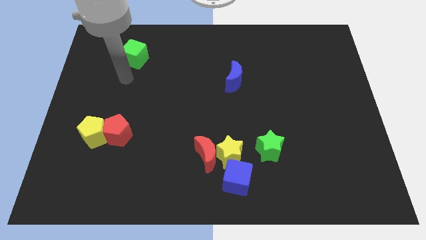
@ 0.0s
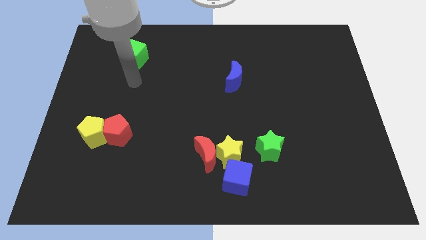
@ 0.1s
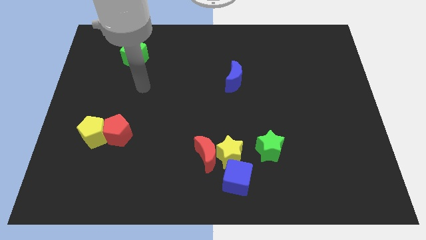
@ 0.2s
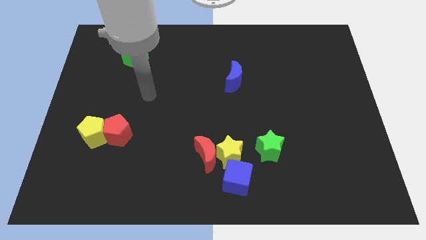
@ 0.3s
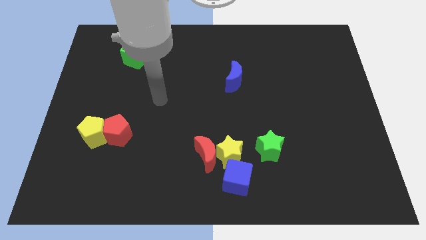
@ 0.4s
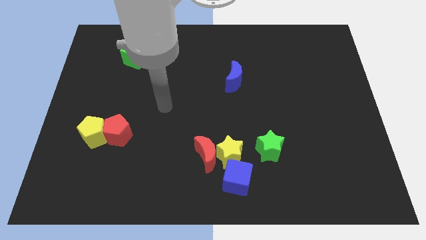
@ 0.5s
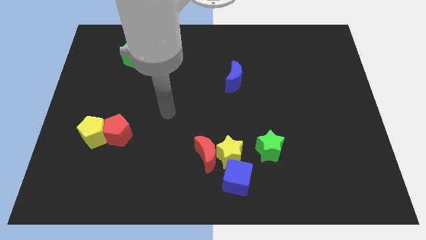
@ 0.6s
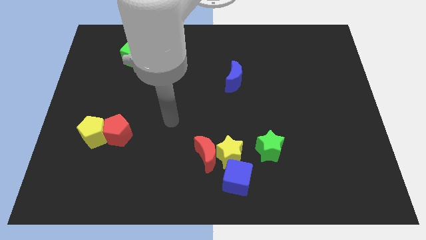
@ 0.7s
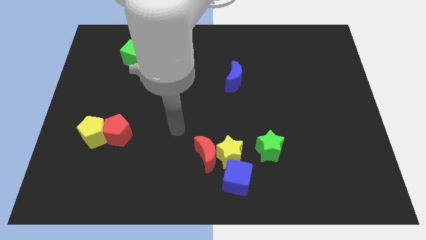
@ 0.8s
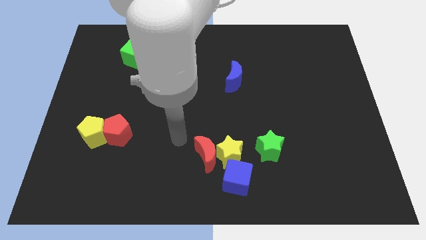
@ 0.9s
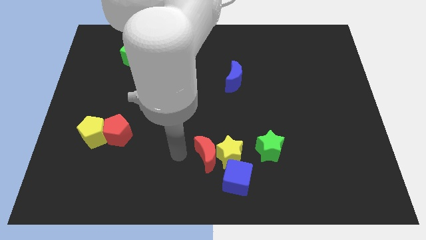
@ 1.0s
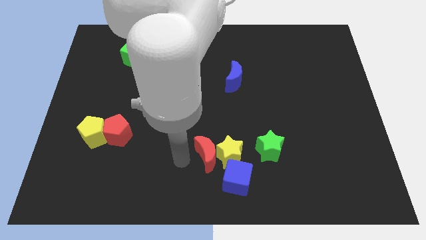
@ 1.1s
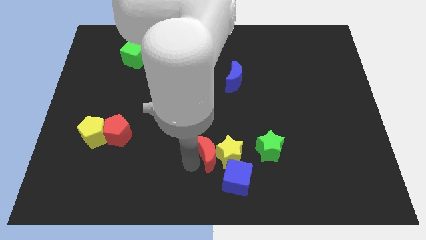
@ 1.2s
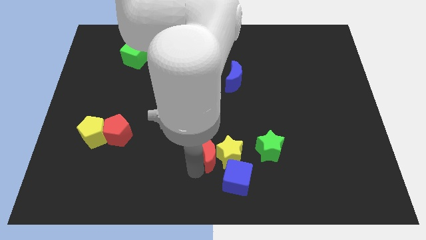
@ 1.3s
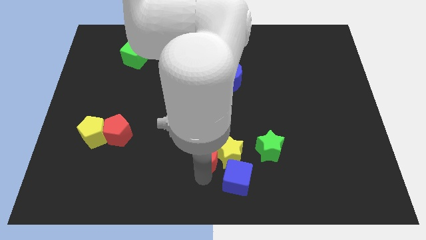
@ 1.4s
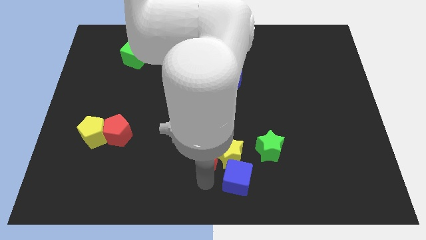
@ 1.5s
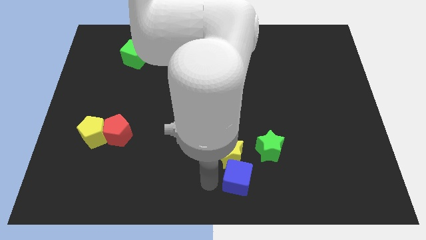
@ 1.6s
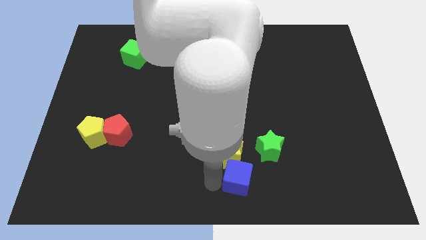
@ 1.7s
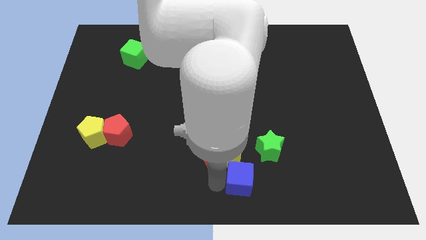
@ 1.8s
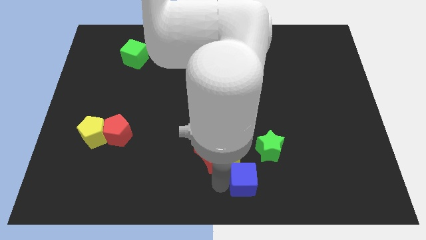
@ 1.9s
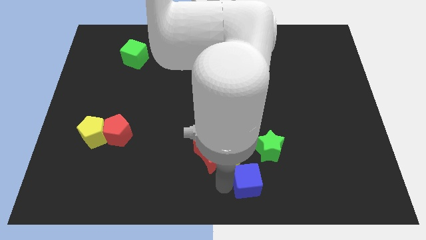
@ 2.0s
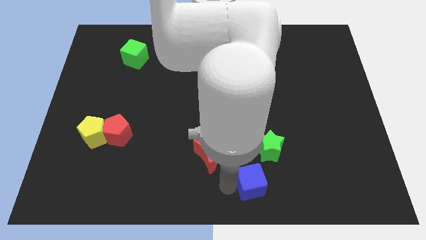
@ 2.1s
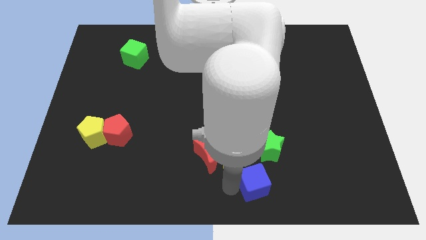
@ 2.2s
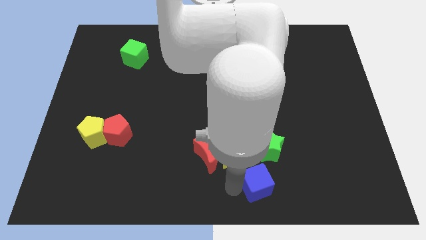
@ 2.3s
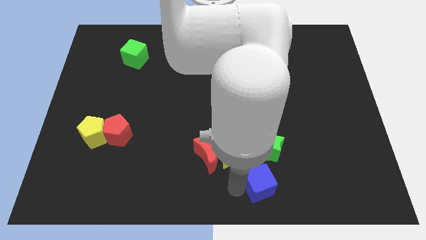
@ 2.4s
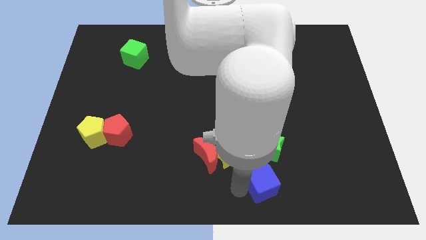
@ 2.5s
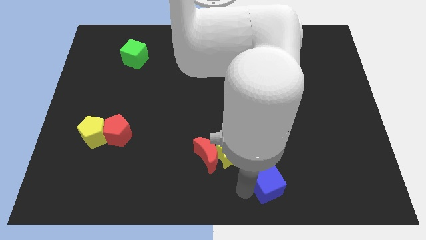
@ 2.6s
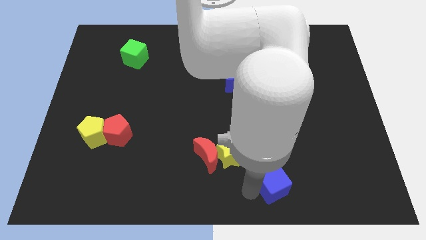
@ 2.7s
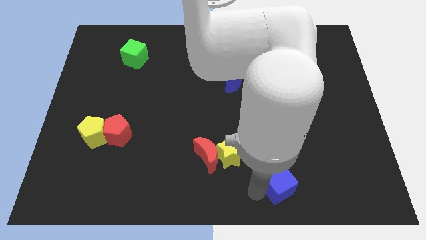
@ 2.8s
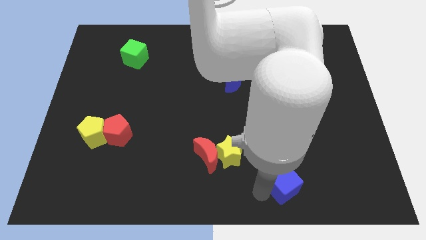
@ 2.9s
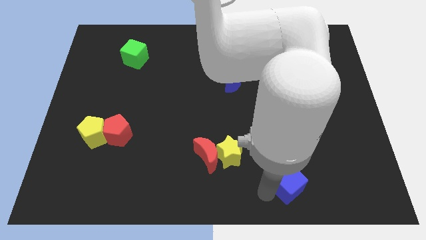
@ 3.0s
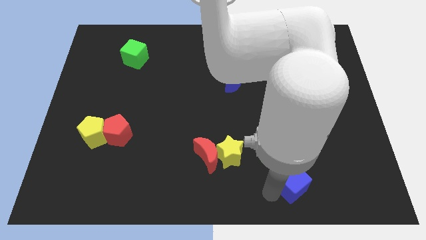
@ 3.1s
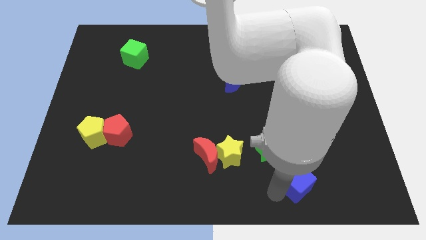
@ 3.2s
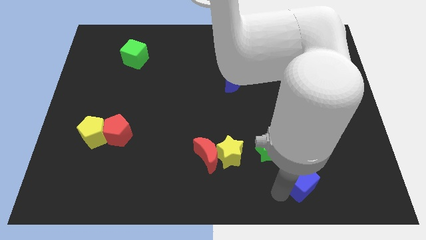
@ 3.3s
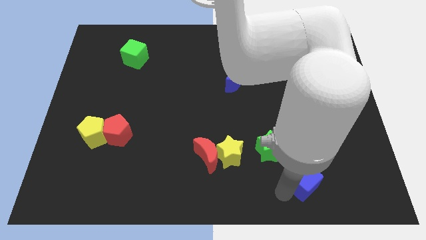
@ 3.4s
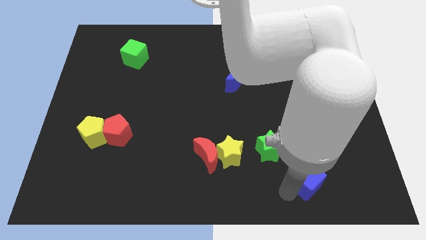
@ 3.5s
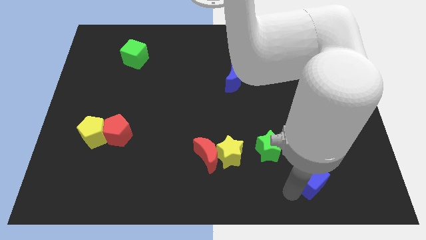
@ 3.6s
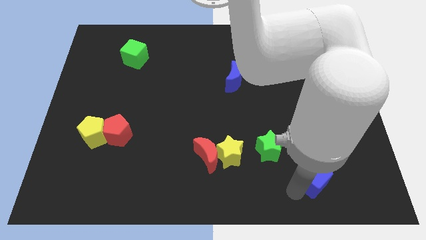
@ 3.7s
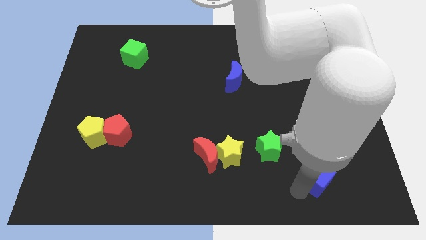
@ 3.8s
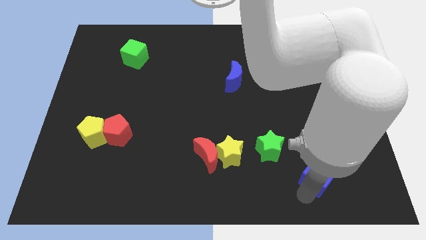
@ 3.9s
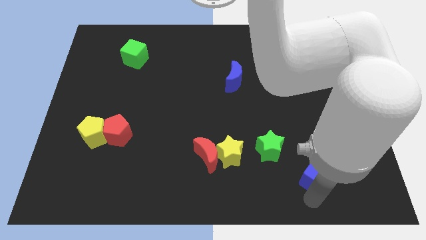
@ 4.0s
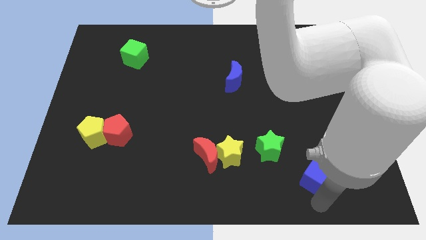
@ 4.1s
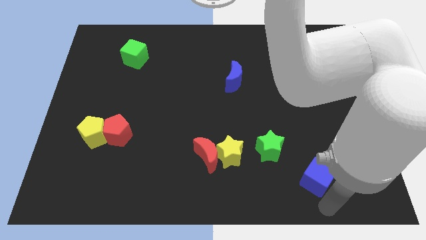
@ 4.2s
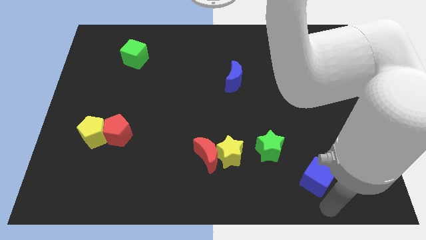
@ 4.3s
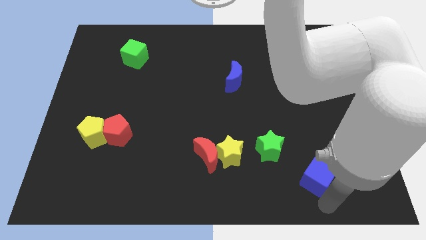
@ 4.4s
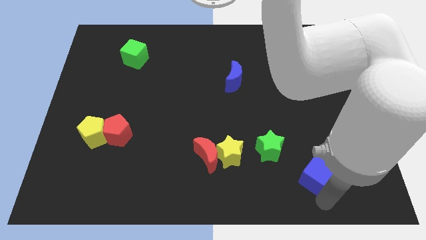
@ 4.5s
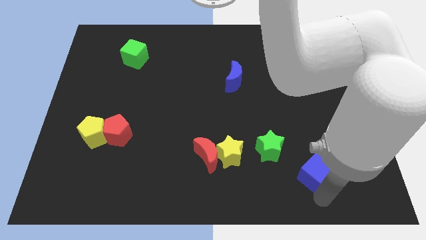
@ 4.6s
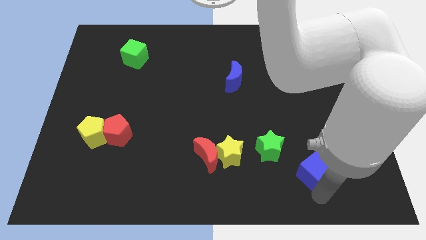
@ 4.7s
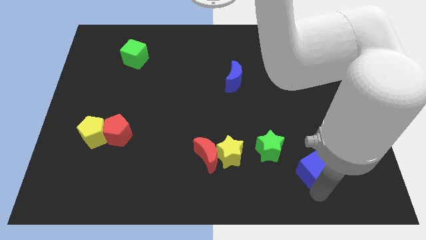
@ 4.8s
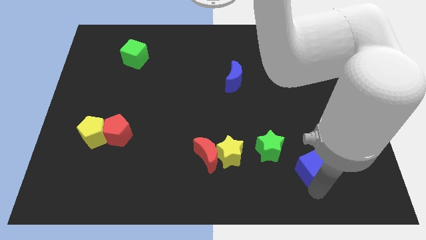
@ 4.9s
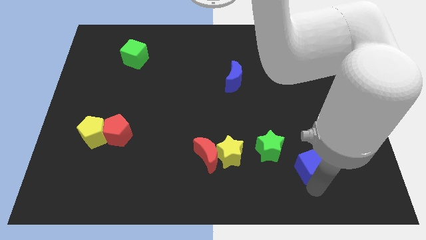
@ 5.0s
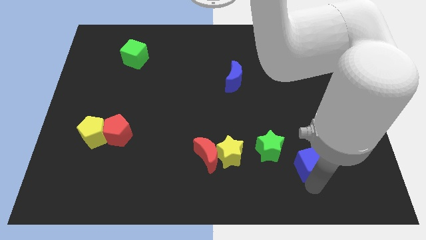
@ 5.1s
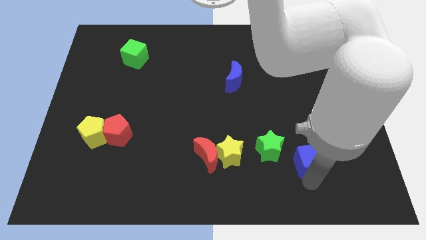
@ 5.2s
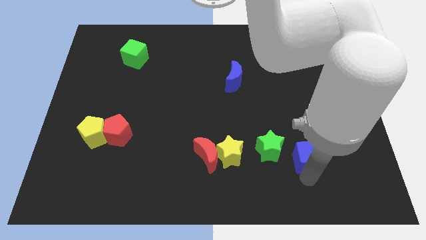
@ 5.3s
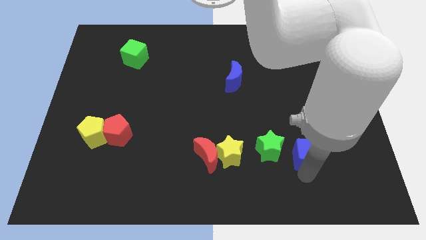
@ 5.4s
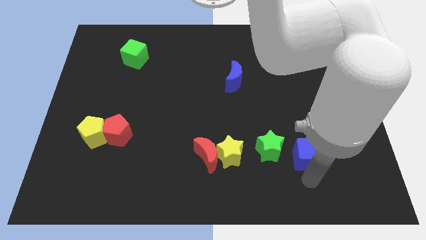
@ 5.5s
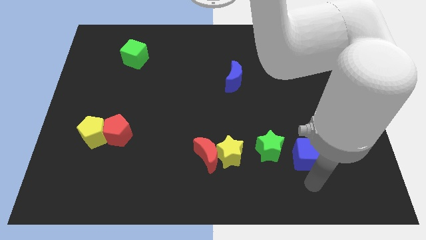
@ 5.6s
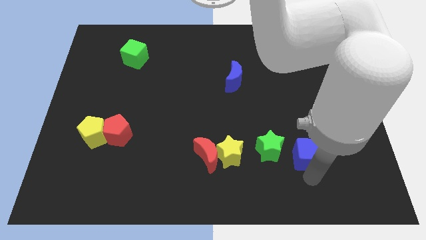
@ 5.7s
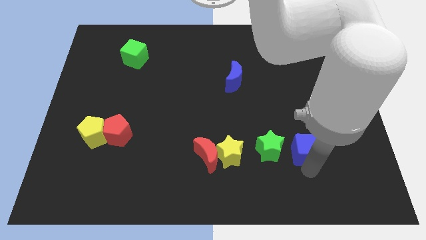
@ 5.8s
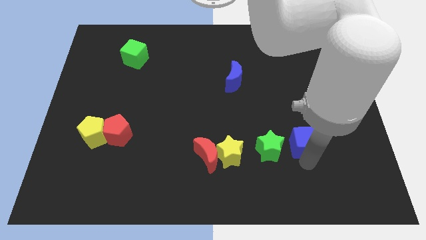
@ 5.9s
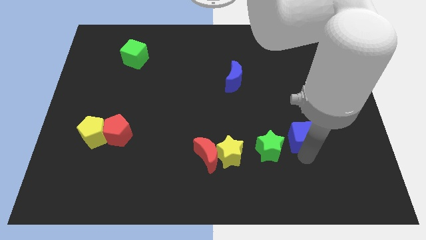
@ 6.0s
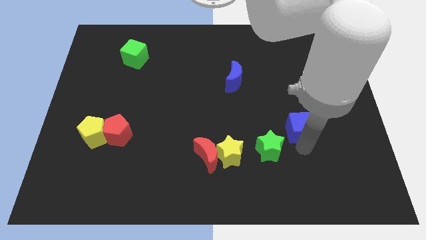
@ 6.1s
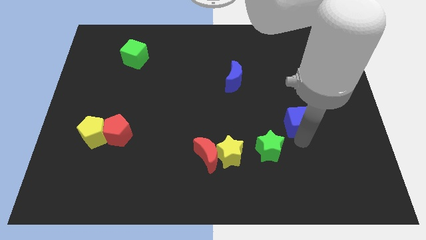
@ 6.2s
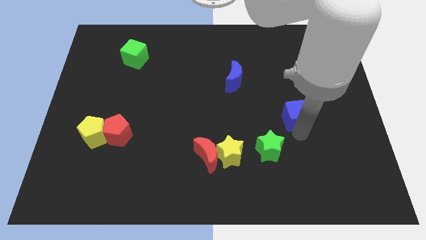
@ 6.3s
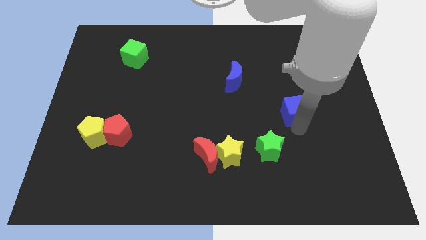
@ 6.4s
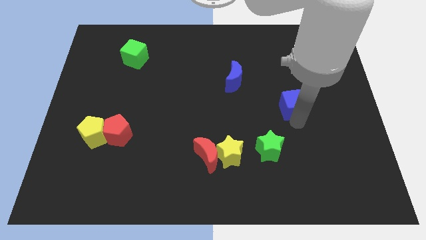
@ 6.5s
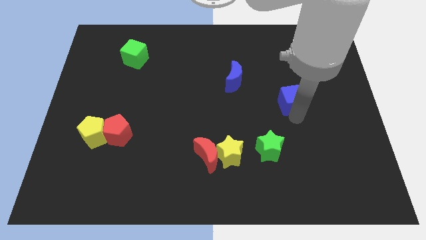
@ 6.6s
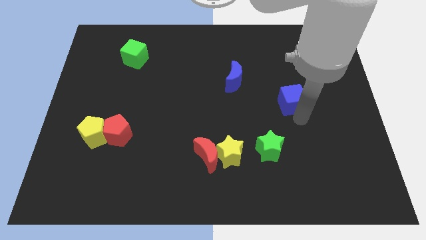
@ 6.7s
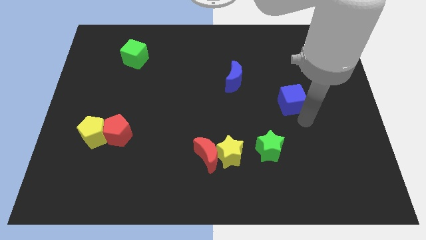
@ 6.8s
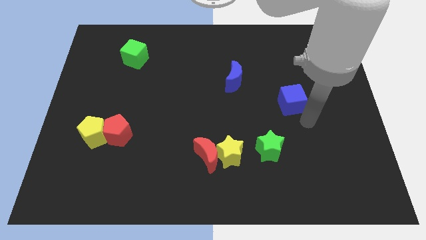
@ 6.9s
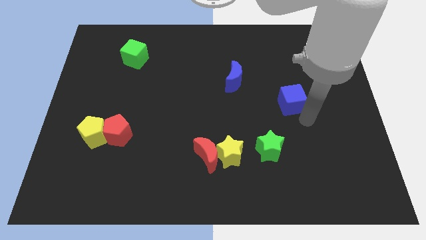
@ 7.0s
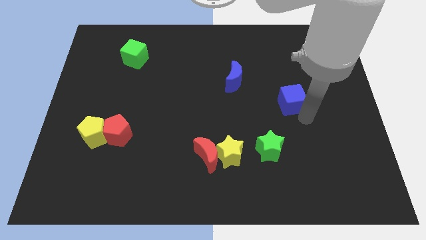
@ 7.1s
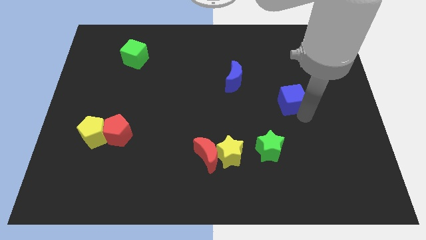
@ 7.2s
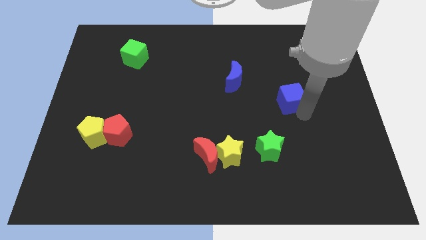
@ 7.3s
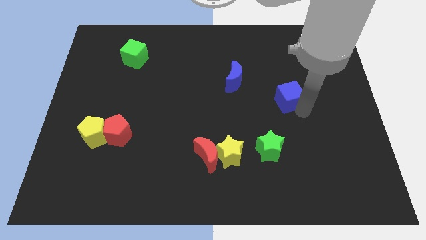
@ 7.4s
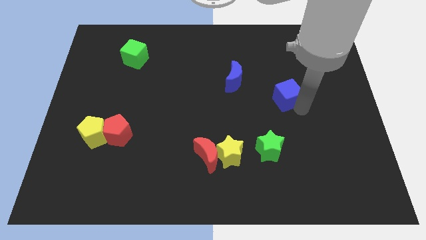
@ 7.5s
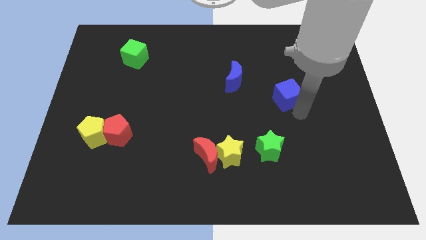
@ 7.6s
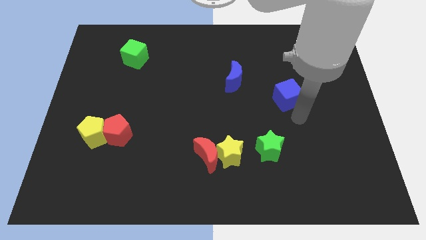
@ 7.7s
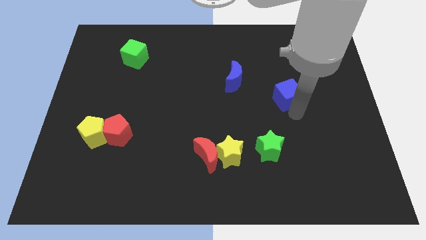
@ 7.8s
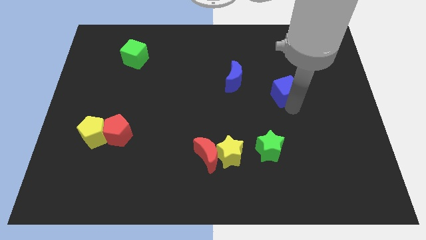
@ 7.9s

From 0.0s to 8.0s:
push the blue cube to the right side of the blue moon
